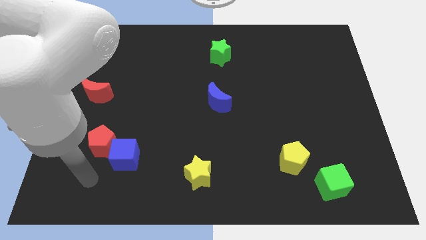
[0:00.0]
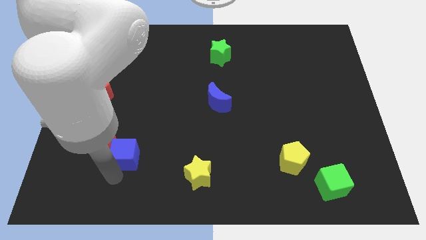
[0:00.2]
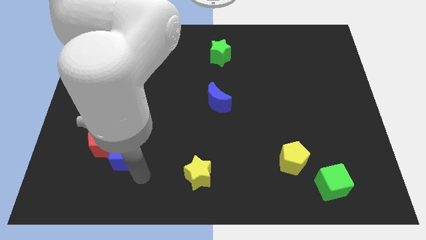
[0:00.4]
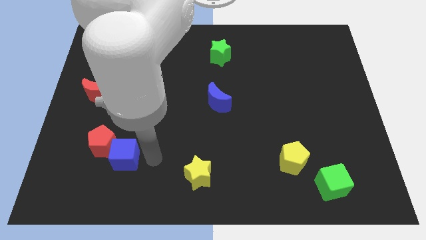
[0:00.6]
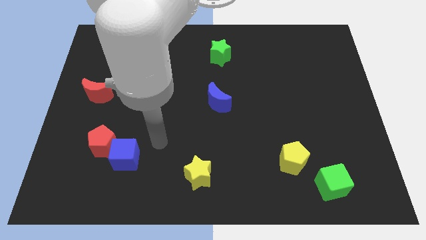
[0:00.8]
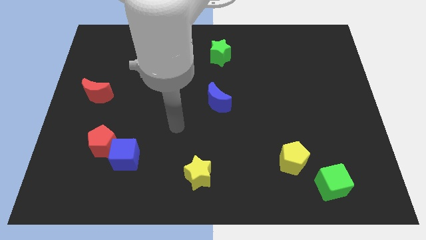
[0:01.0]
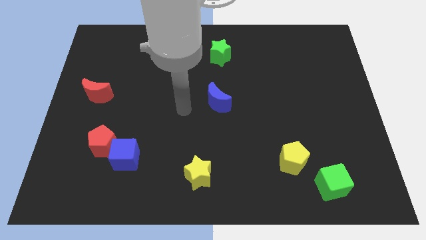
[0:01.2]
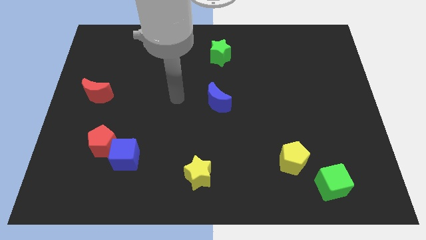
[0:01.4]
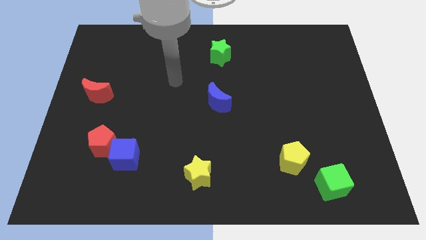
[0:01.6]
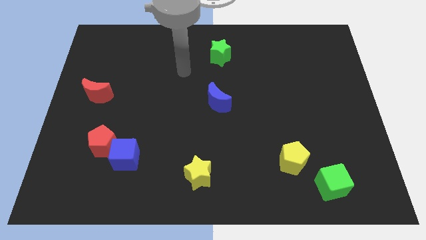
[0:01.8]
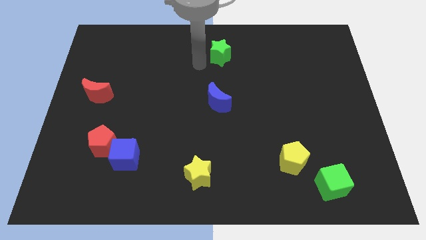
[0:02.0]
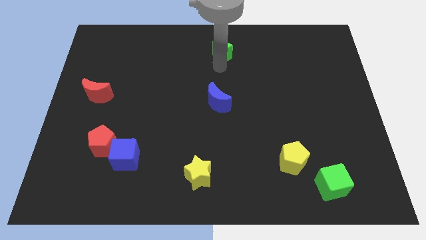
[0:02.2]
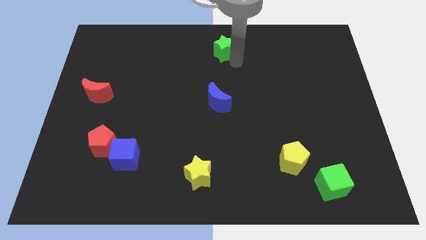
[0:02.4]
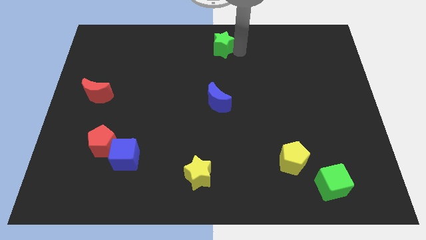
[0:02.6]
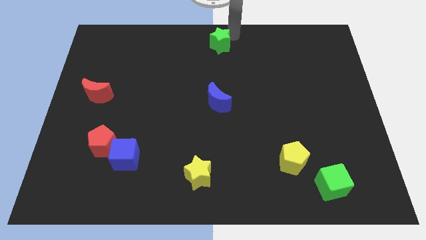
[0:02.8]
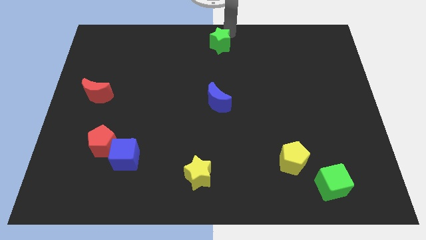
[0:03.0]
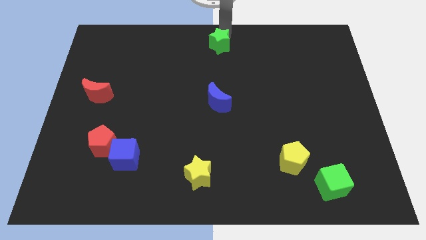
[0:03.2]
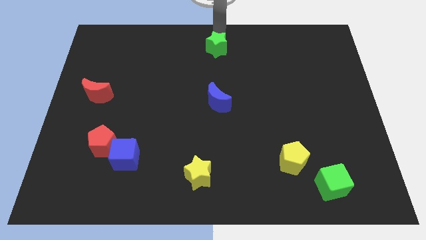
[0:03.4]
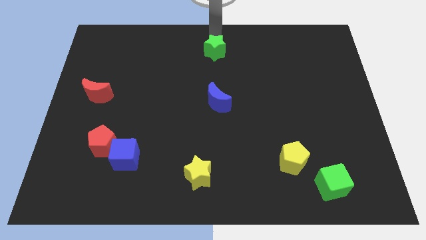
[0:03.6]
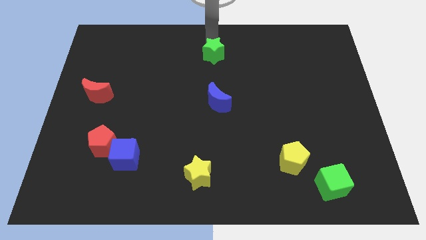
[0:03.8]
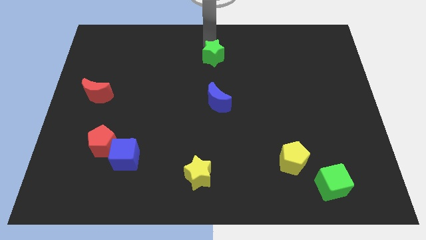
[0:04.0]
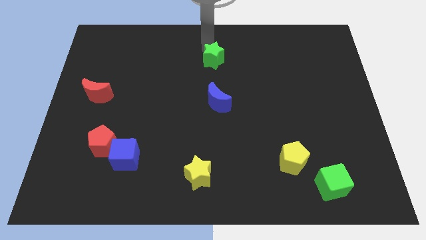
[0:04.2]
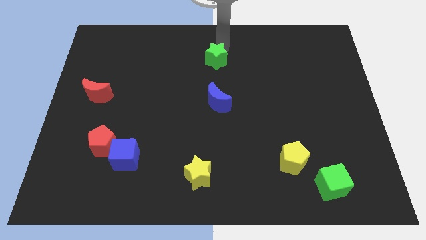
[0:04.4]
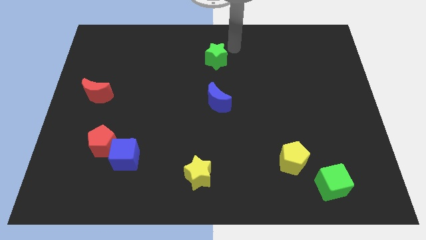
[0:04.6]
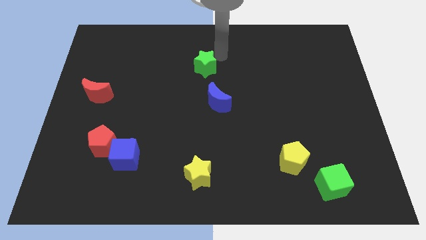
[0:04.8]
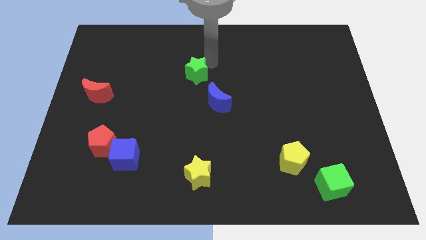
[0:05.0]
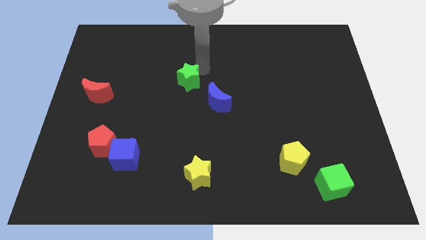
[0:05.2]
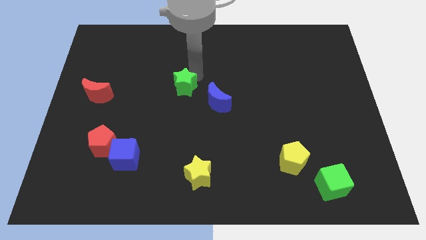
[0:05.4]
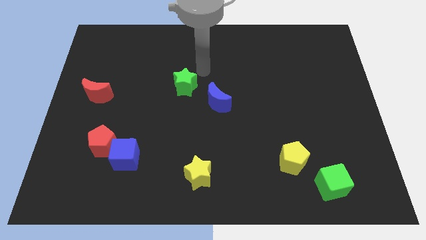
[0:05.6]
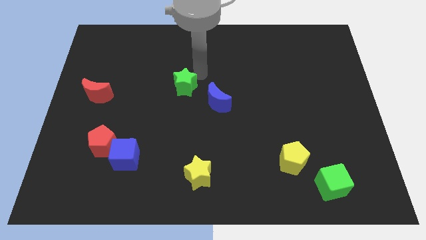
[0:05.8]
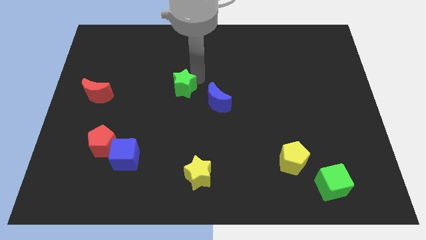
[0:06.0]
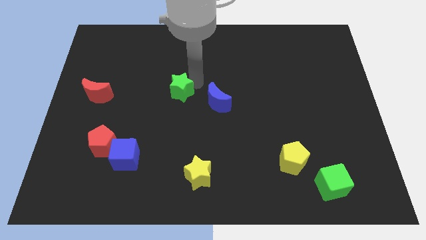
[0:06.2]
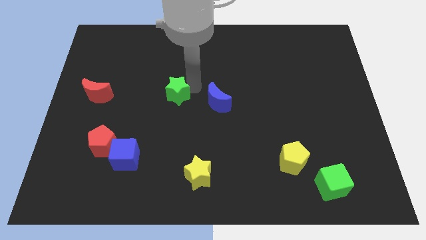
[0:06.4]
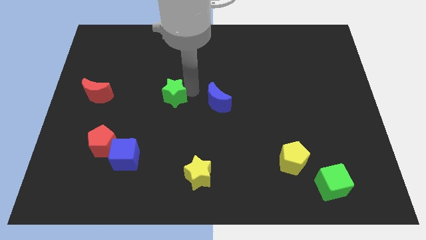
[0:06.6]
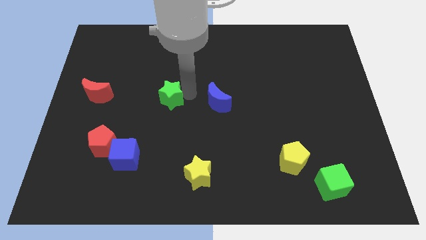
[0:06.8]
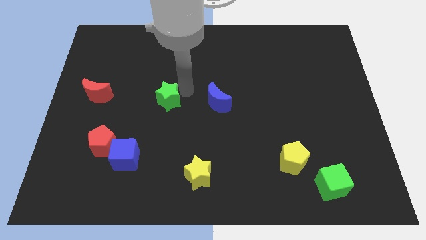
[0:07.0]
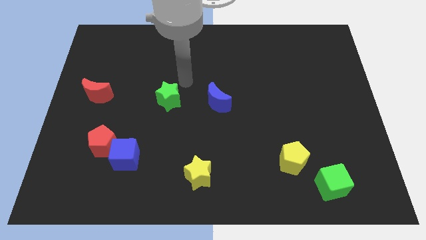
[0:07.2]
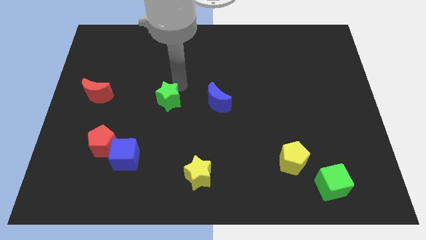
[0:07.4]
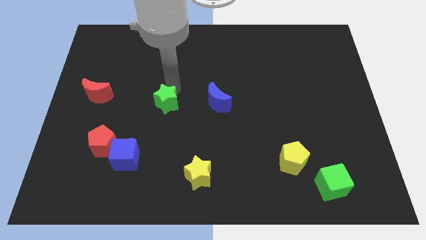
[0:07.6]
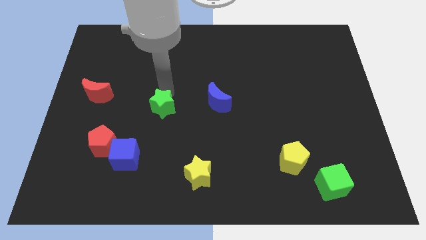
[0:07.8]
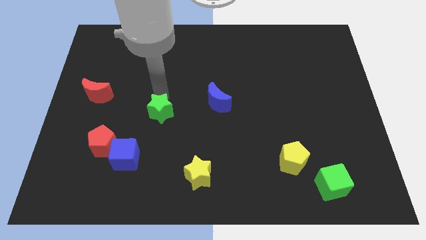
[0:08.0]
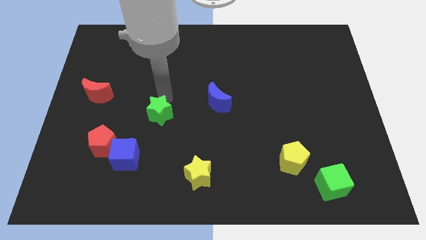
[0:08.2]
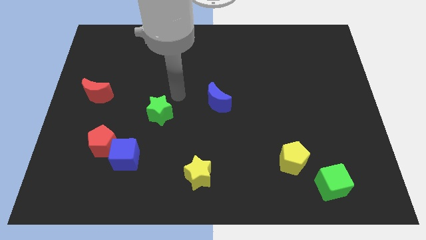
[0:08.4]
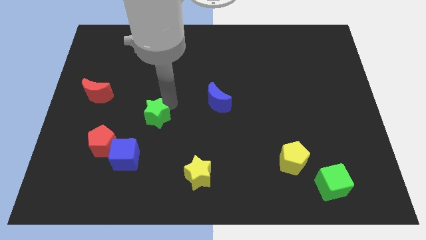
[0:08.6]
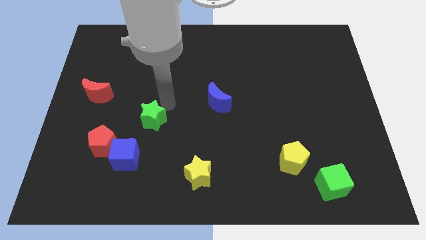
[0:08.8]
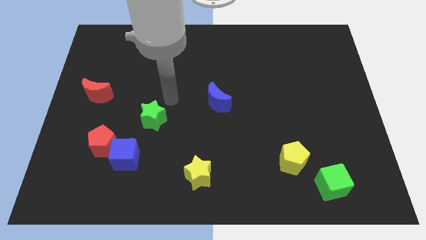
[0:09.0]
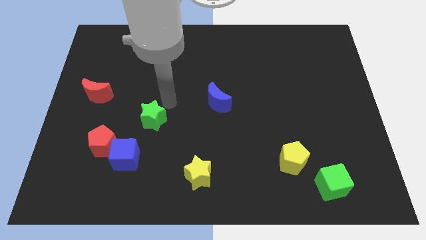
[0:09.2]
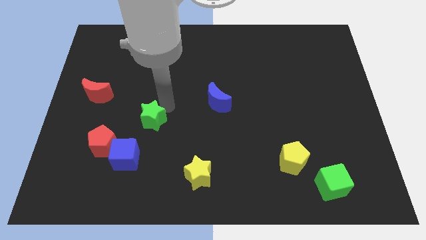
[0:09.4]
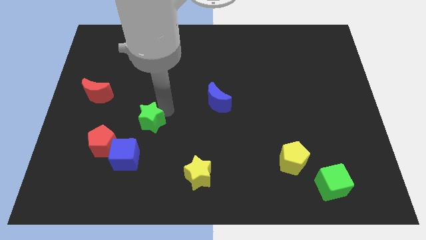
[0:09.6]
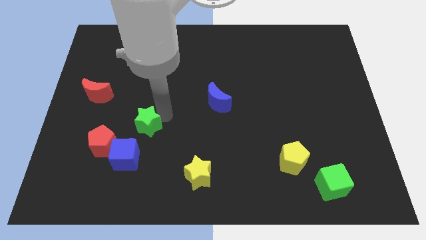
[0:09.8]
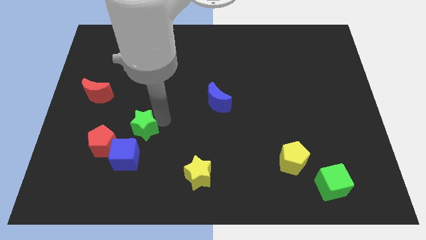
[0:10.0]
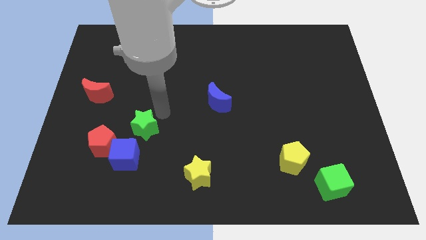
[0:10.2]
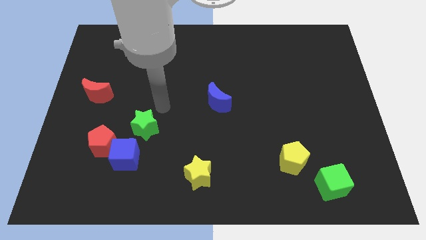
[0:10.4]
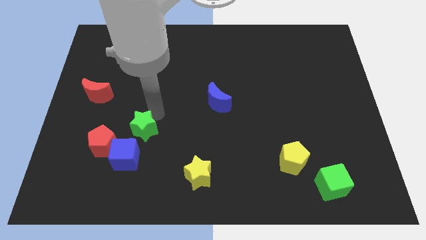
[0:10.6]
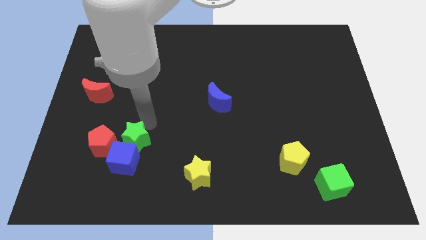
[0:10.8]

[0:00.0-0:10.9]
move the green star next to the blue cube

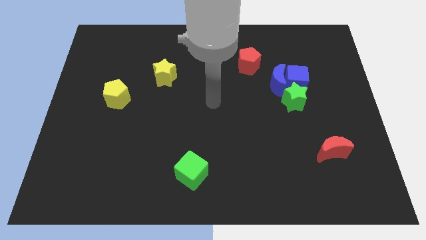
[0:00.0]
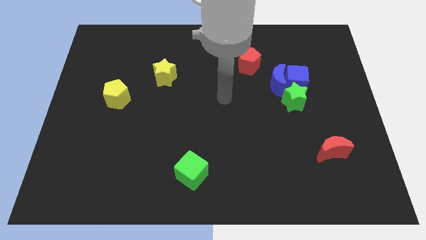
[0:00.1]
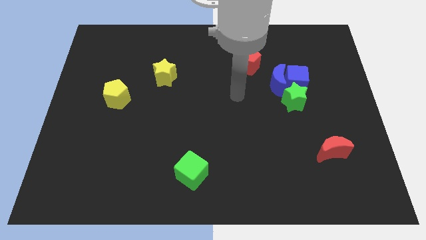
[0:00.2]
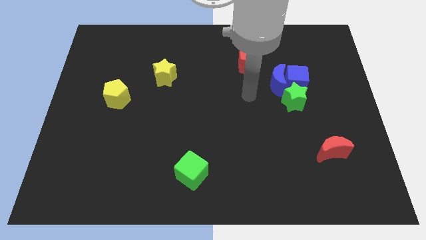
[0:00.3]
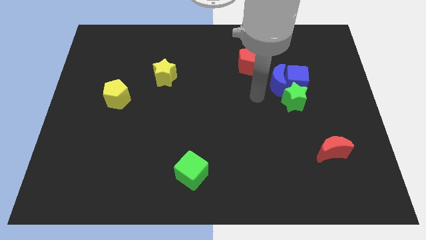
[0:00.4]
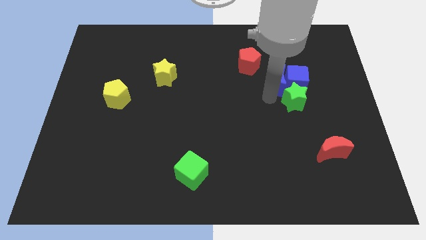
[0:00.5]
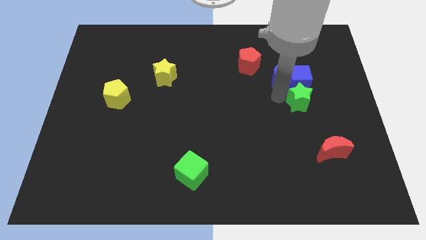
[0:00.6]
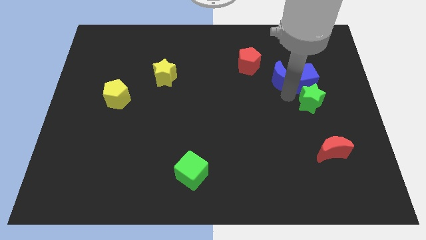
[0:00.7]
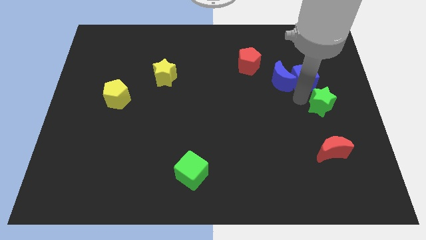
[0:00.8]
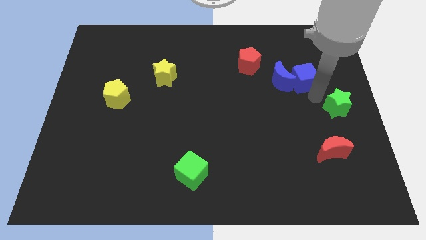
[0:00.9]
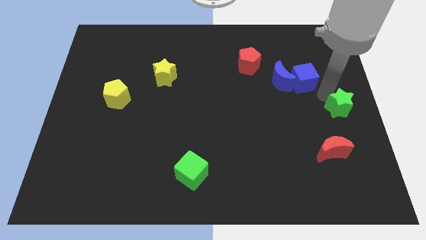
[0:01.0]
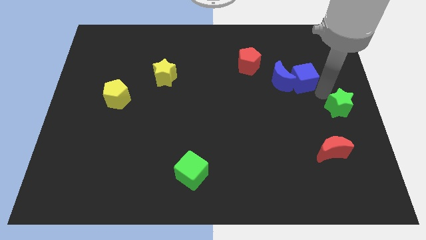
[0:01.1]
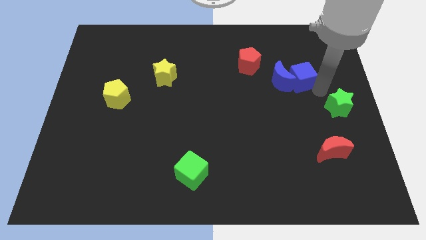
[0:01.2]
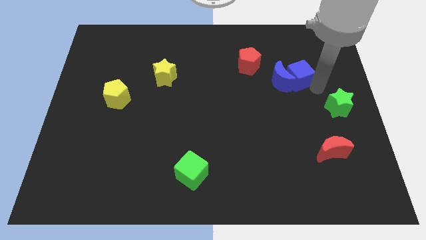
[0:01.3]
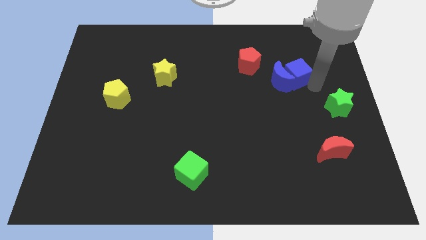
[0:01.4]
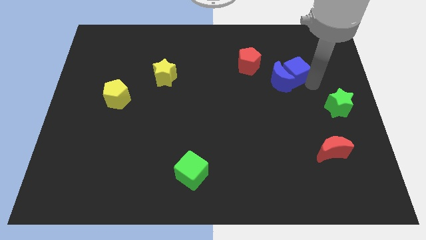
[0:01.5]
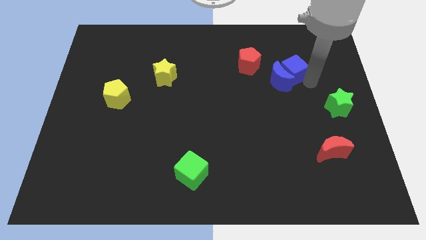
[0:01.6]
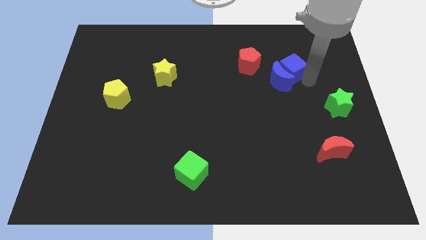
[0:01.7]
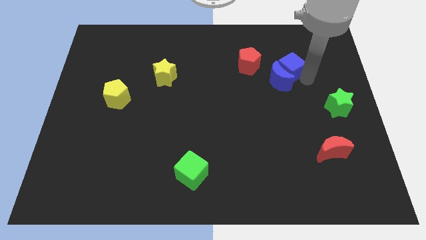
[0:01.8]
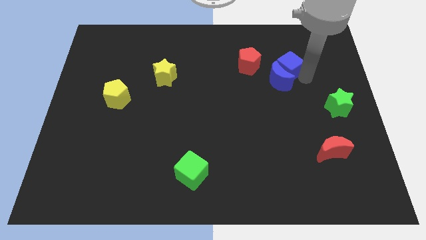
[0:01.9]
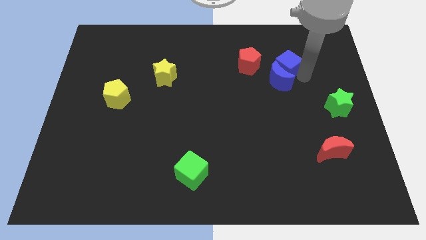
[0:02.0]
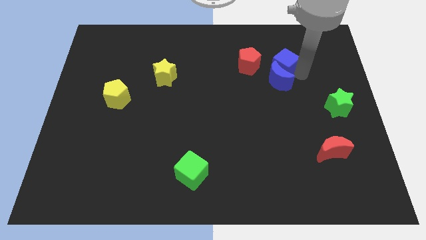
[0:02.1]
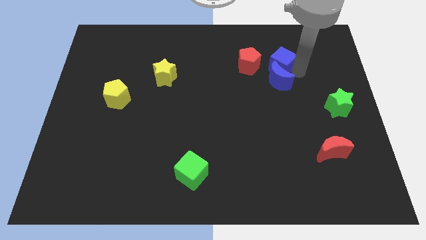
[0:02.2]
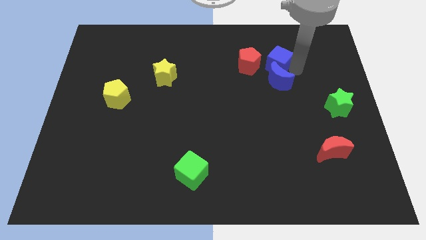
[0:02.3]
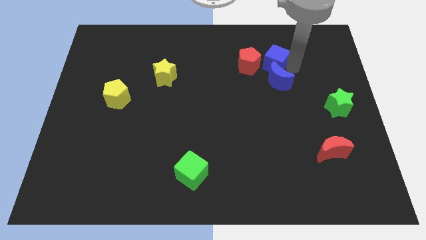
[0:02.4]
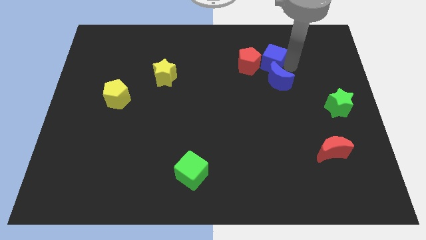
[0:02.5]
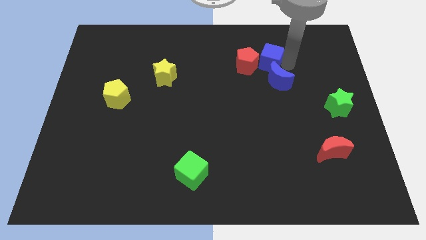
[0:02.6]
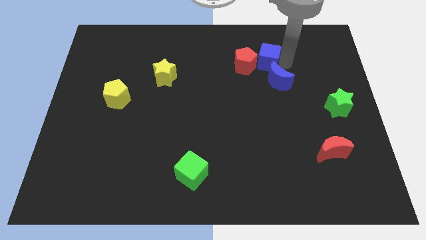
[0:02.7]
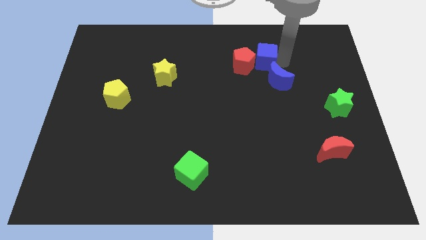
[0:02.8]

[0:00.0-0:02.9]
slide the blue cube close to the red pentagon

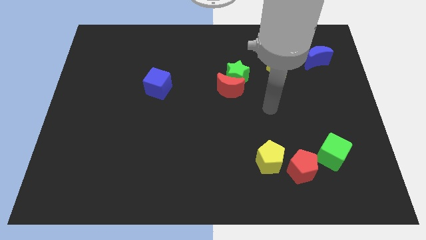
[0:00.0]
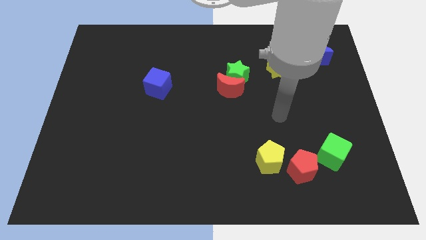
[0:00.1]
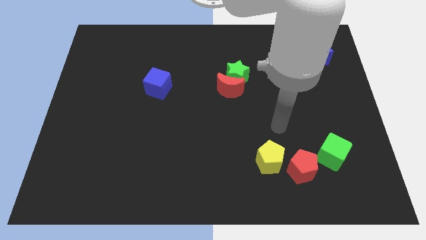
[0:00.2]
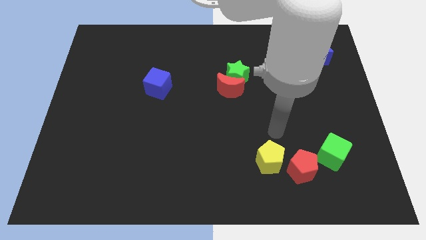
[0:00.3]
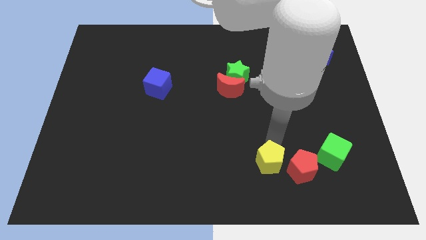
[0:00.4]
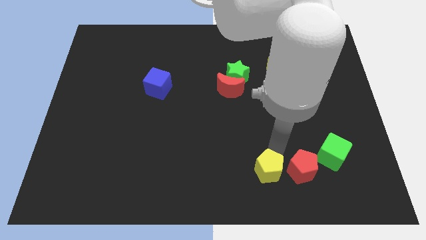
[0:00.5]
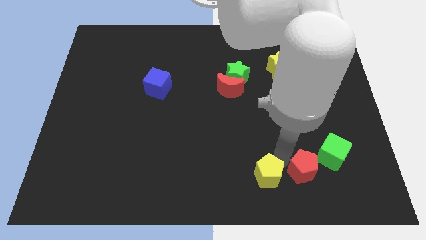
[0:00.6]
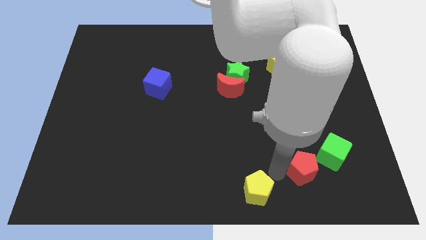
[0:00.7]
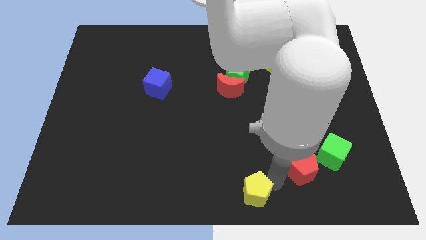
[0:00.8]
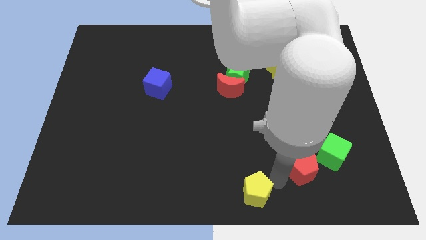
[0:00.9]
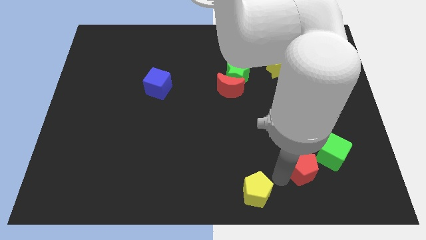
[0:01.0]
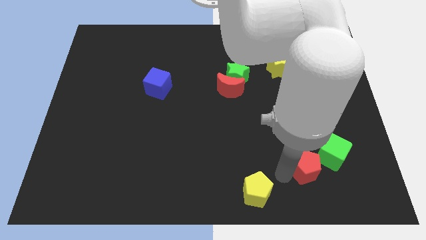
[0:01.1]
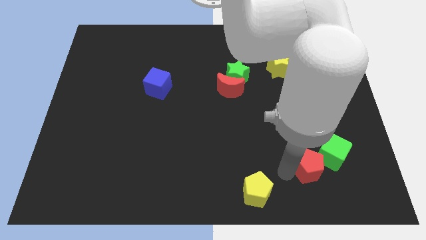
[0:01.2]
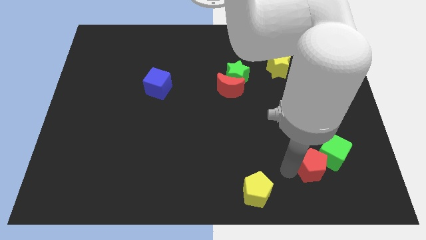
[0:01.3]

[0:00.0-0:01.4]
move the red pentagon towards the green cube
